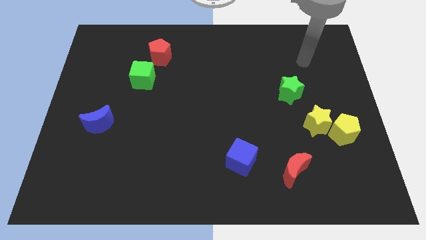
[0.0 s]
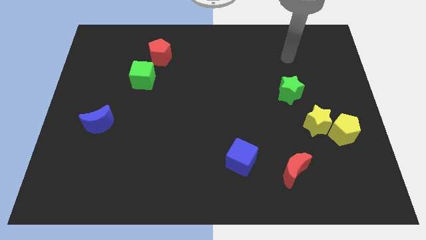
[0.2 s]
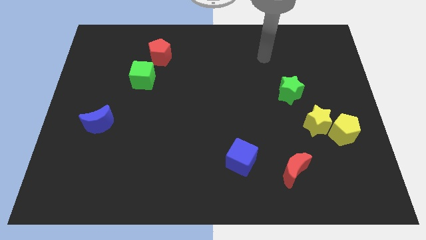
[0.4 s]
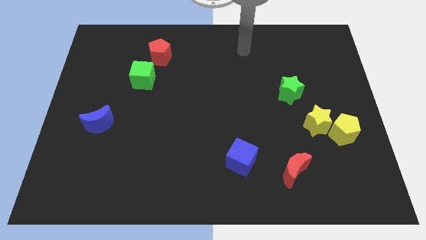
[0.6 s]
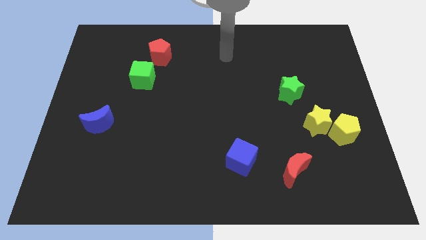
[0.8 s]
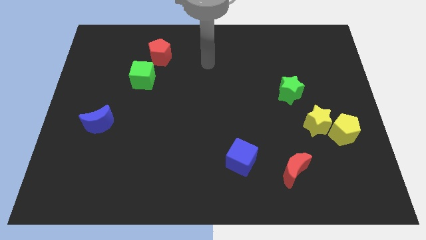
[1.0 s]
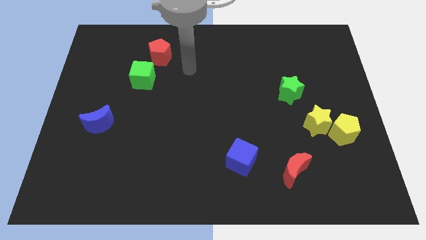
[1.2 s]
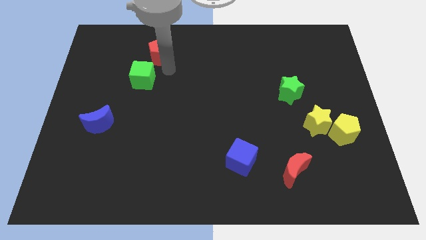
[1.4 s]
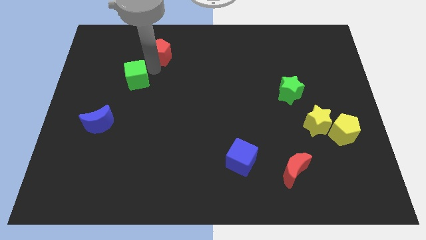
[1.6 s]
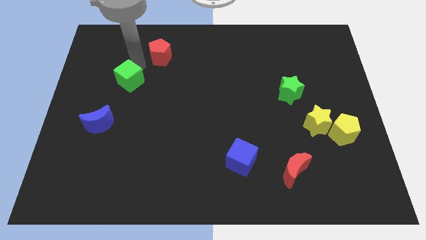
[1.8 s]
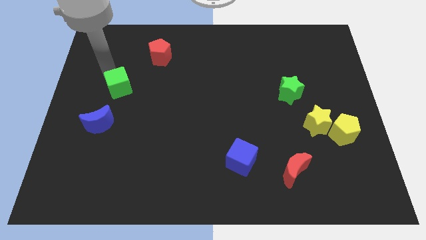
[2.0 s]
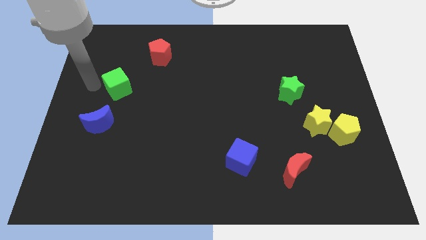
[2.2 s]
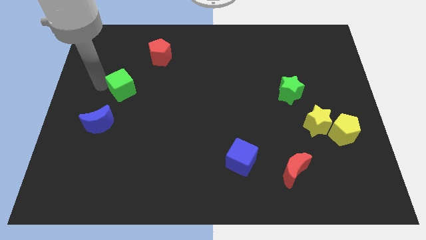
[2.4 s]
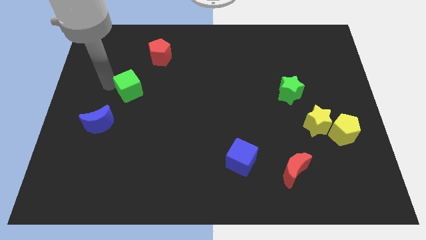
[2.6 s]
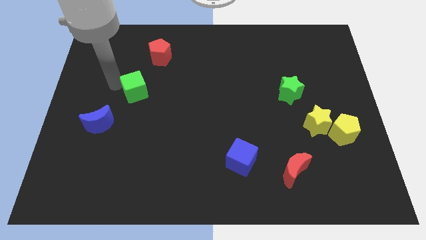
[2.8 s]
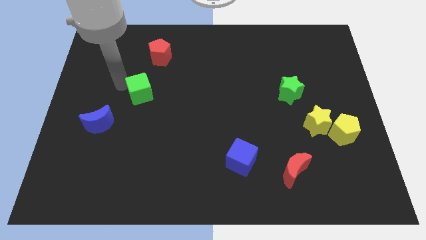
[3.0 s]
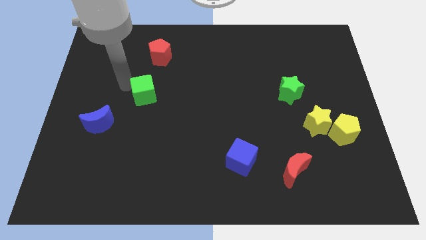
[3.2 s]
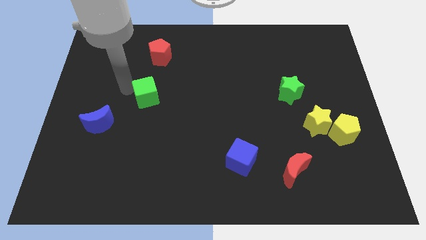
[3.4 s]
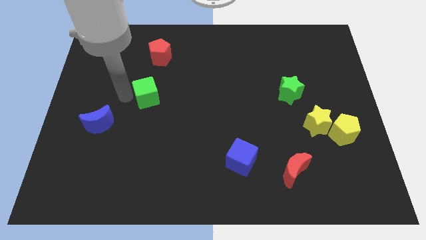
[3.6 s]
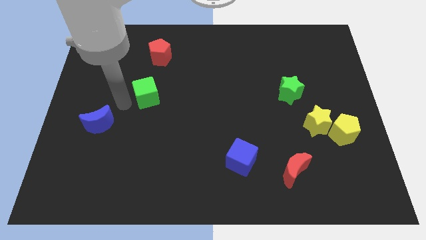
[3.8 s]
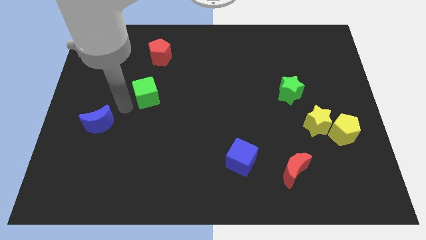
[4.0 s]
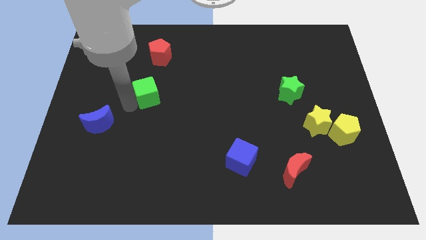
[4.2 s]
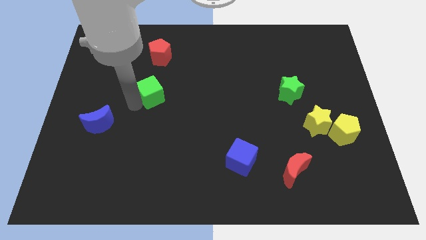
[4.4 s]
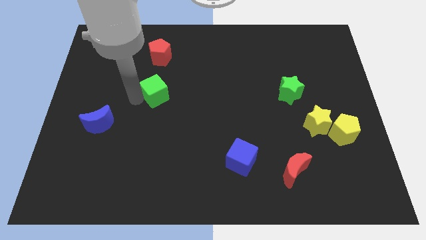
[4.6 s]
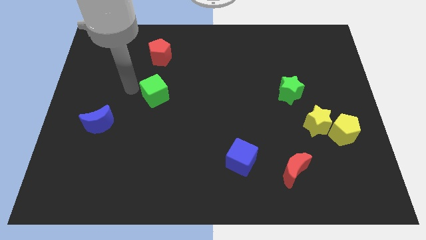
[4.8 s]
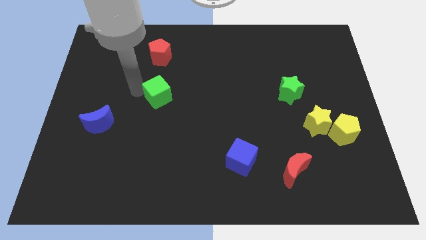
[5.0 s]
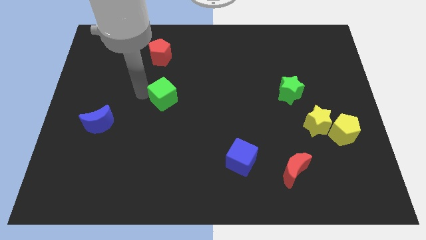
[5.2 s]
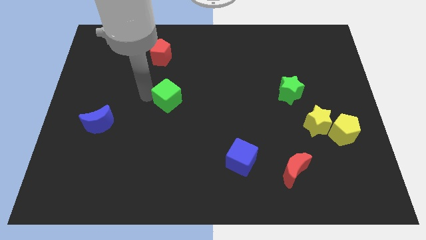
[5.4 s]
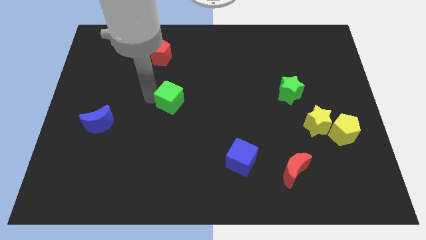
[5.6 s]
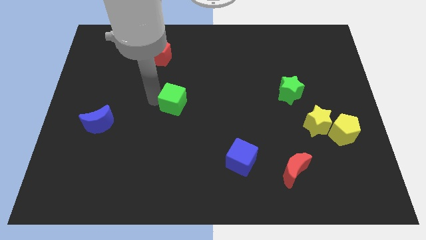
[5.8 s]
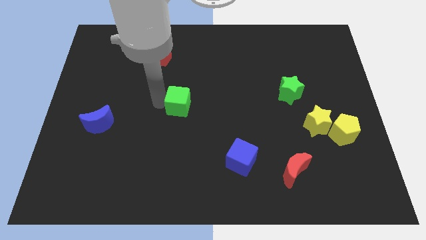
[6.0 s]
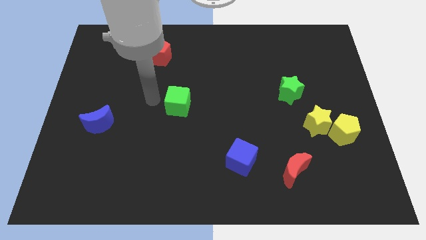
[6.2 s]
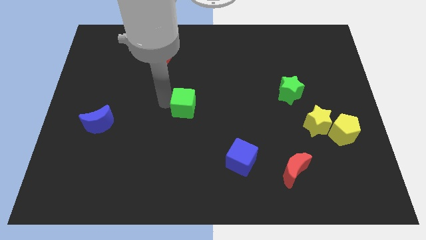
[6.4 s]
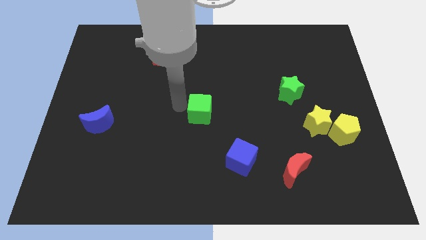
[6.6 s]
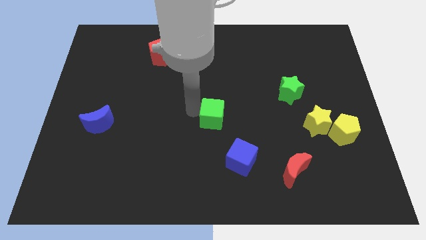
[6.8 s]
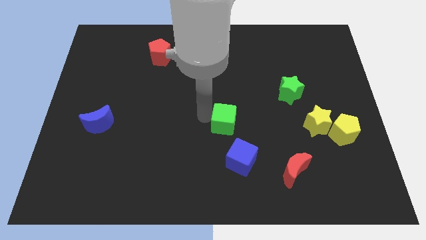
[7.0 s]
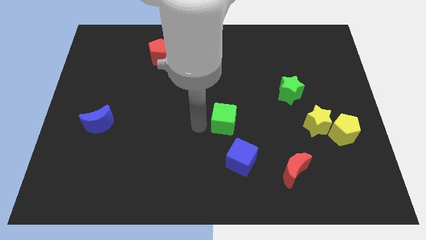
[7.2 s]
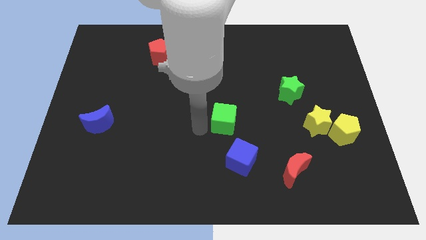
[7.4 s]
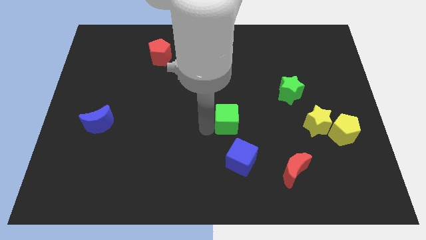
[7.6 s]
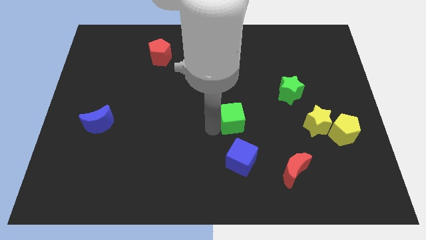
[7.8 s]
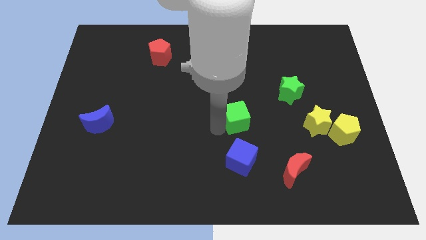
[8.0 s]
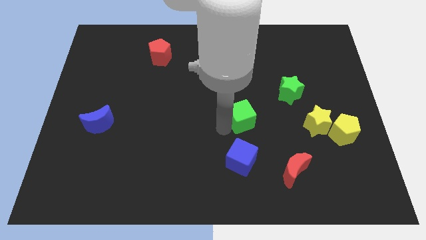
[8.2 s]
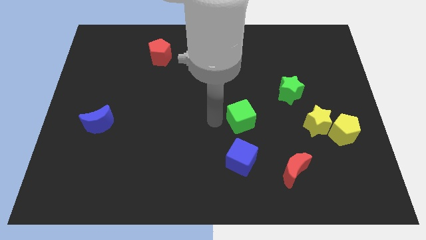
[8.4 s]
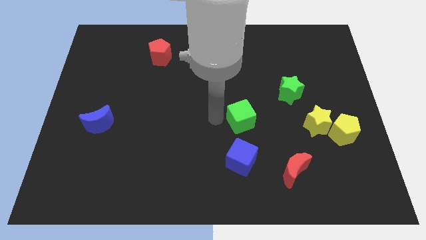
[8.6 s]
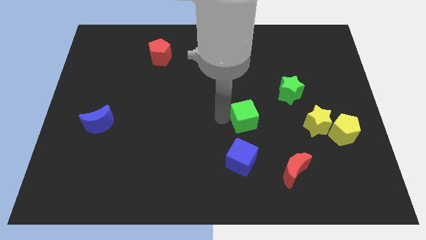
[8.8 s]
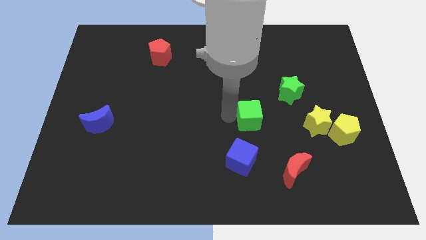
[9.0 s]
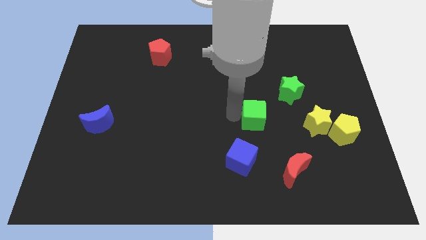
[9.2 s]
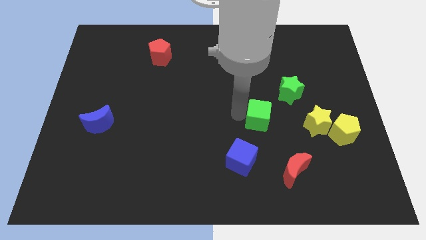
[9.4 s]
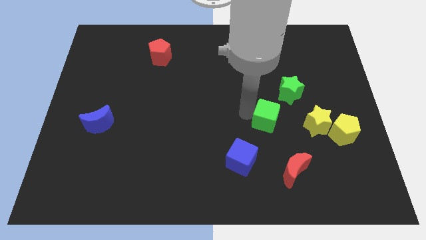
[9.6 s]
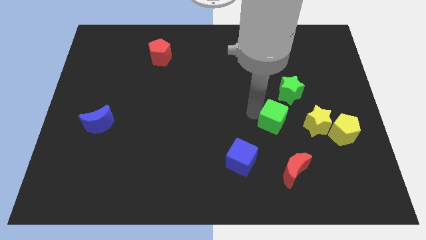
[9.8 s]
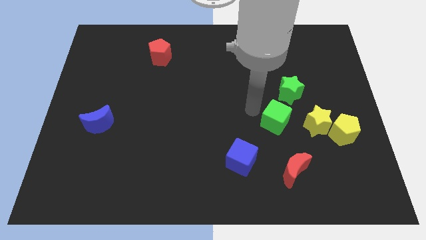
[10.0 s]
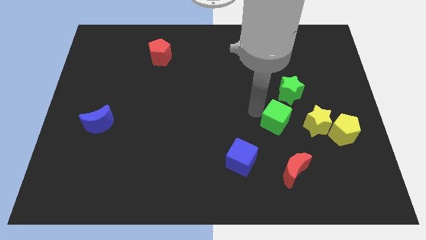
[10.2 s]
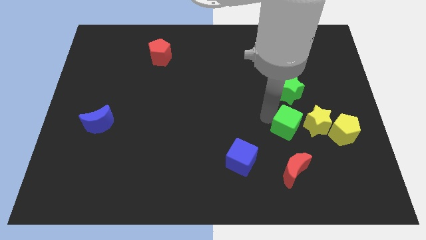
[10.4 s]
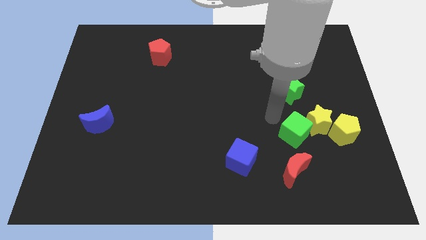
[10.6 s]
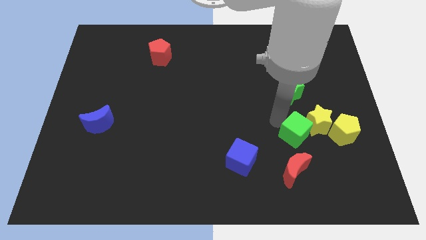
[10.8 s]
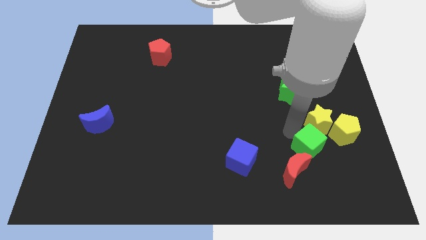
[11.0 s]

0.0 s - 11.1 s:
slide the green cube to the bottom left side of the yellow pentagon

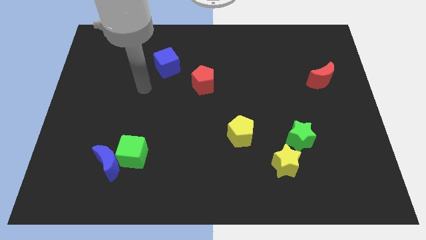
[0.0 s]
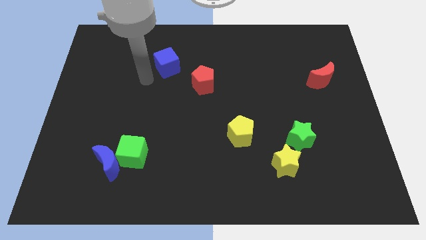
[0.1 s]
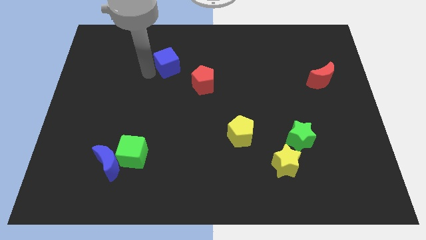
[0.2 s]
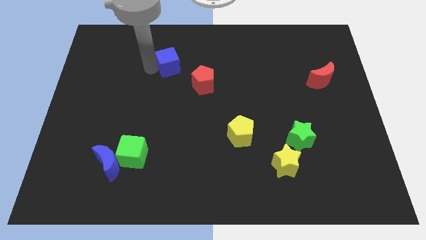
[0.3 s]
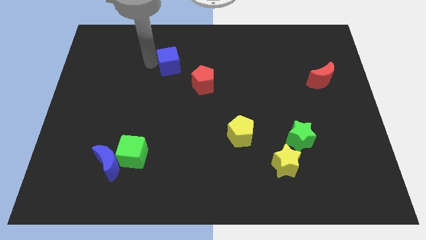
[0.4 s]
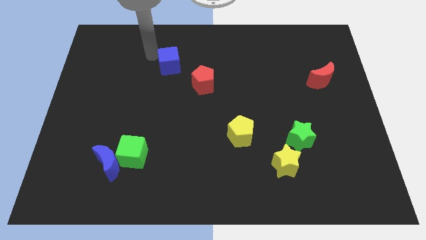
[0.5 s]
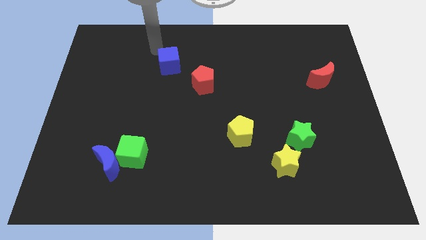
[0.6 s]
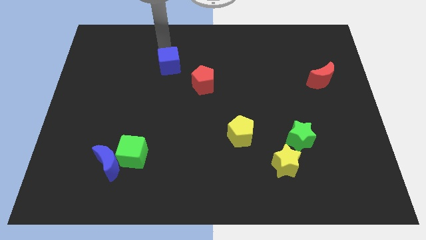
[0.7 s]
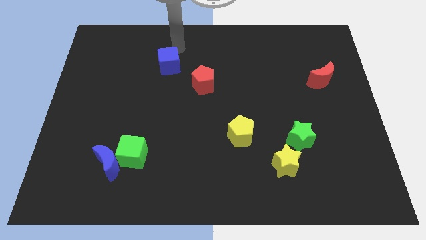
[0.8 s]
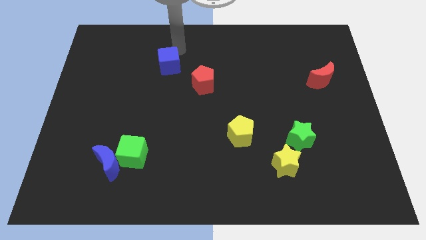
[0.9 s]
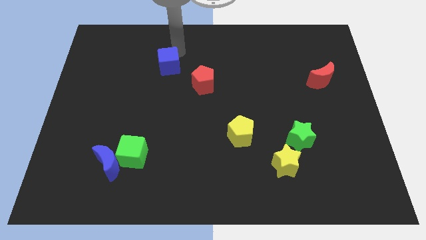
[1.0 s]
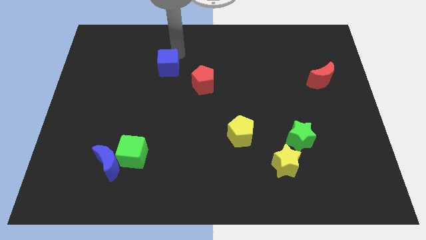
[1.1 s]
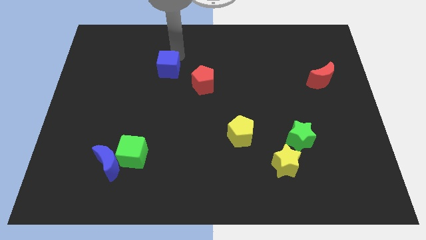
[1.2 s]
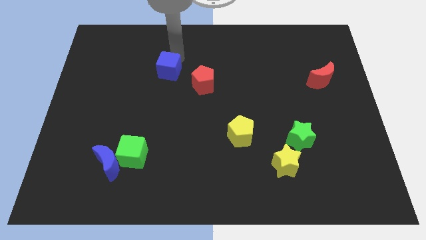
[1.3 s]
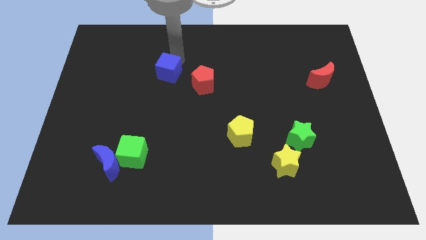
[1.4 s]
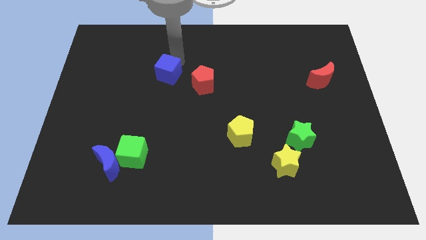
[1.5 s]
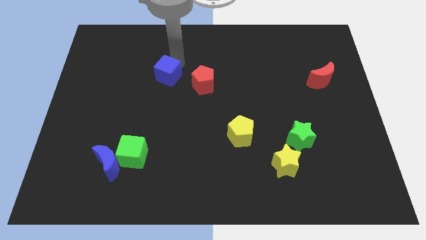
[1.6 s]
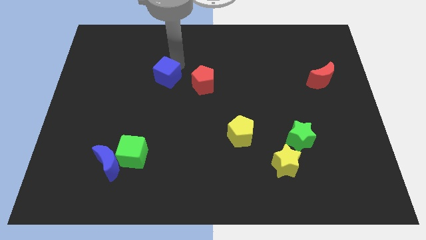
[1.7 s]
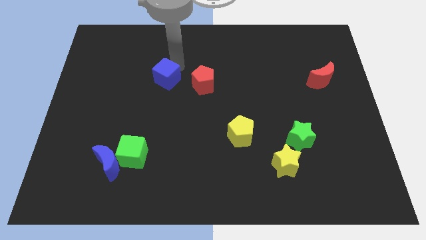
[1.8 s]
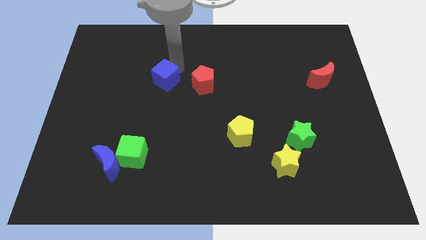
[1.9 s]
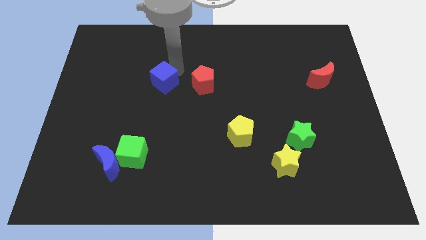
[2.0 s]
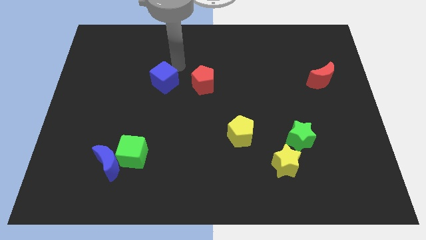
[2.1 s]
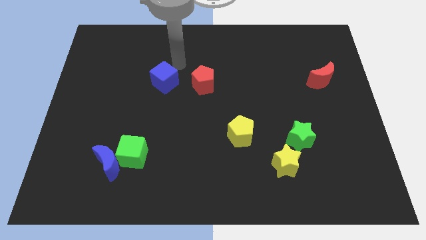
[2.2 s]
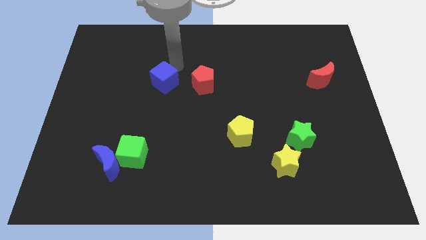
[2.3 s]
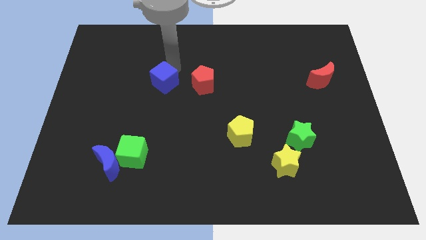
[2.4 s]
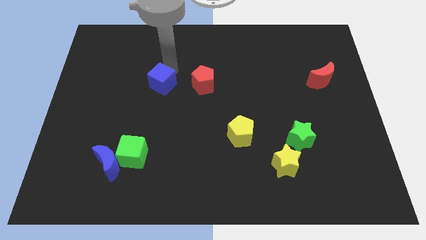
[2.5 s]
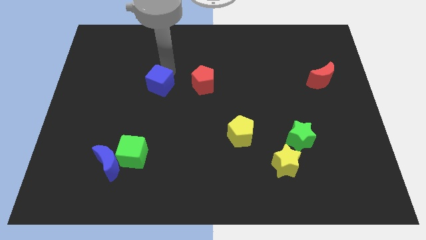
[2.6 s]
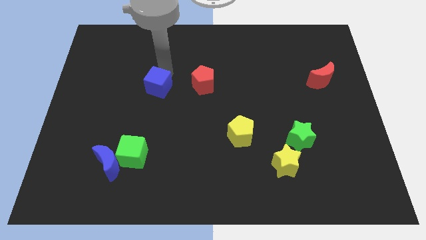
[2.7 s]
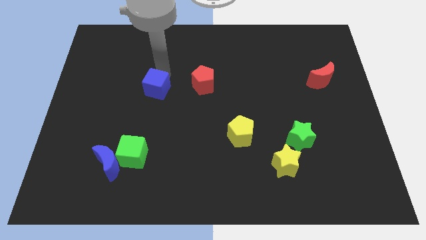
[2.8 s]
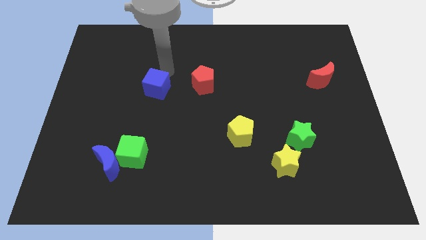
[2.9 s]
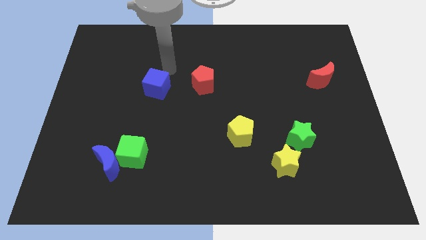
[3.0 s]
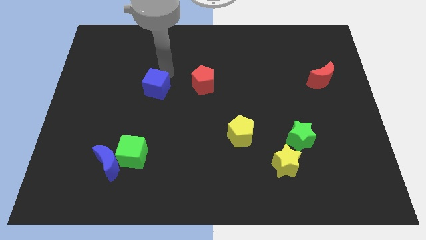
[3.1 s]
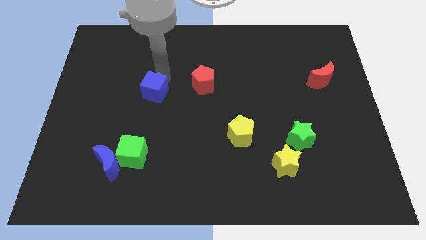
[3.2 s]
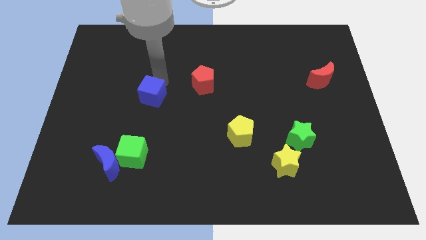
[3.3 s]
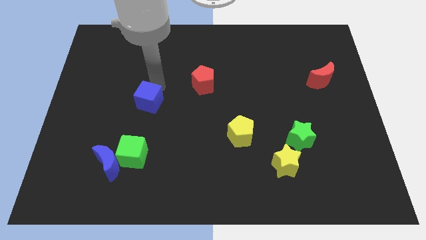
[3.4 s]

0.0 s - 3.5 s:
push the blue cube to the top of the green cube
